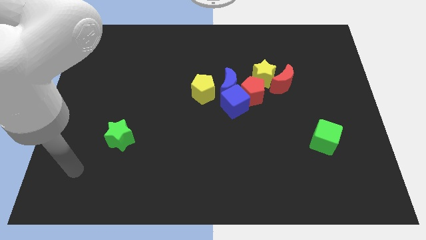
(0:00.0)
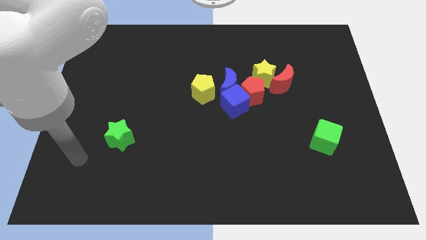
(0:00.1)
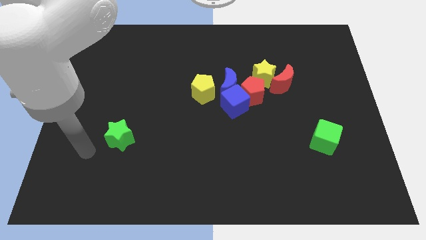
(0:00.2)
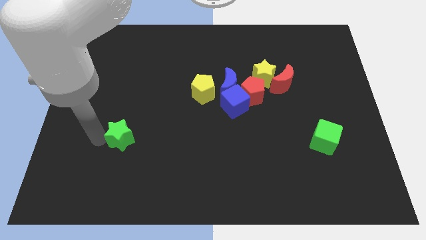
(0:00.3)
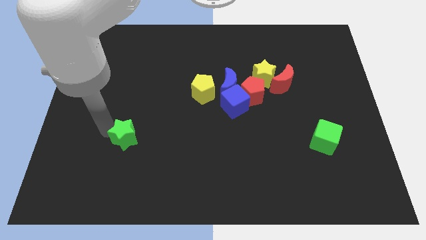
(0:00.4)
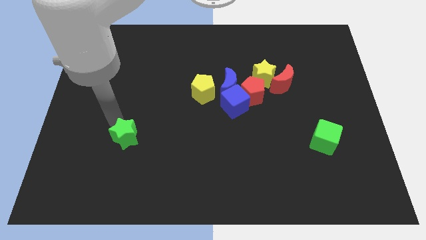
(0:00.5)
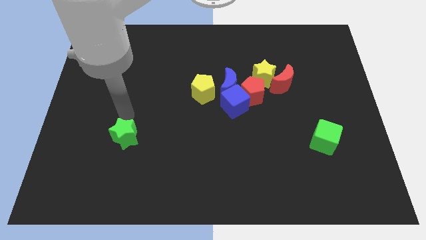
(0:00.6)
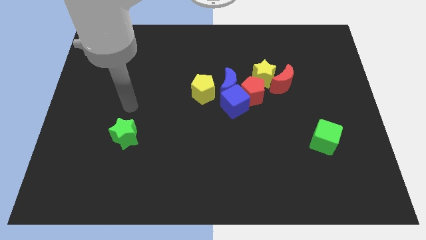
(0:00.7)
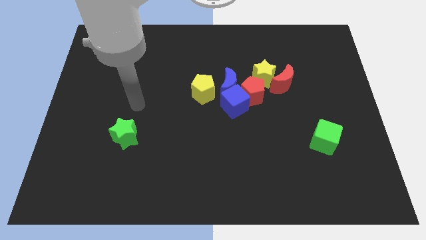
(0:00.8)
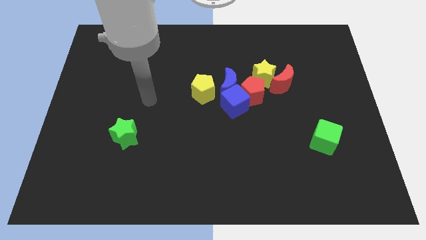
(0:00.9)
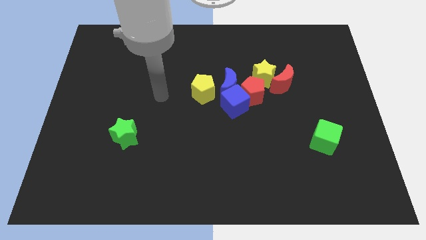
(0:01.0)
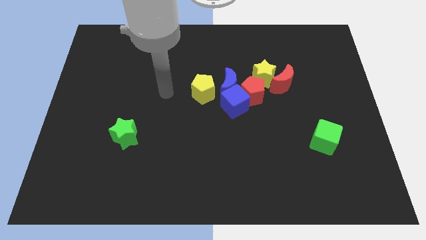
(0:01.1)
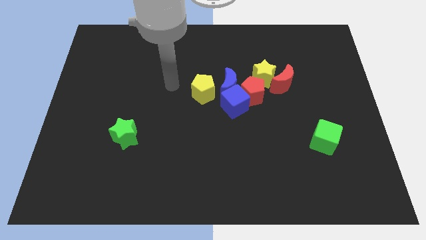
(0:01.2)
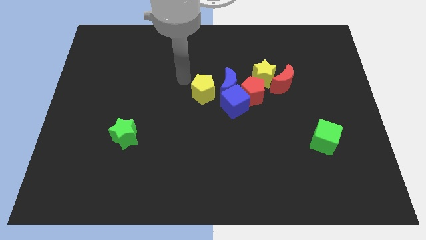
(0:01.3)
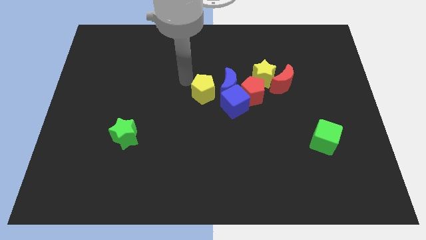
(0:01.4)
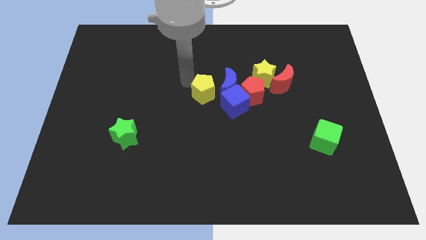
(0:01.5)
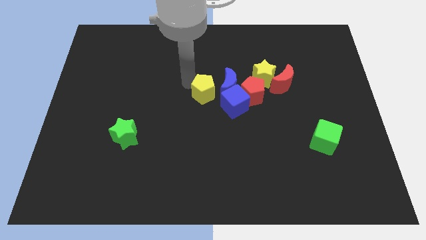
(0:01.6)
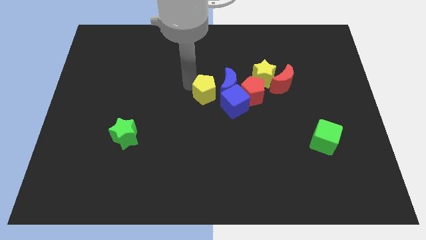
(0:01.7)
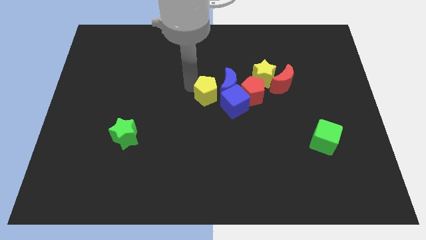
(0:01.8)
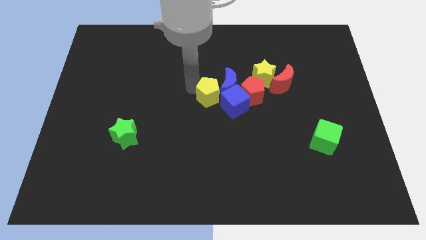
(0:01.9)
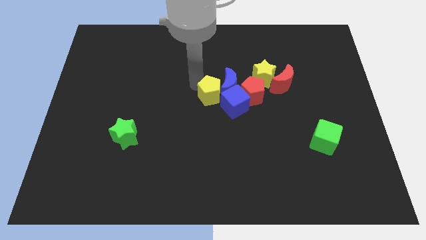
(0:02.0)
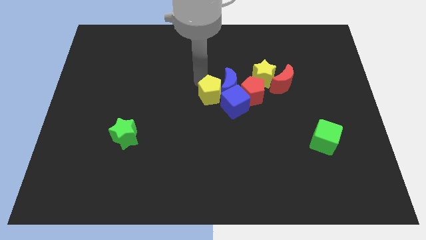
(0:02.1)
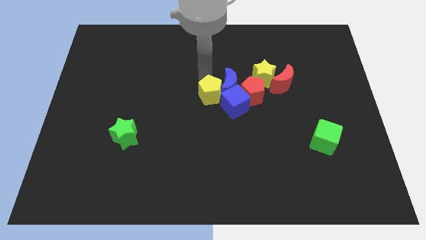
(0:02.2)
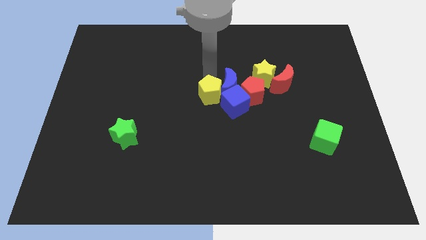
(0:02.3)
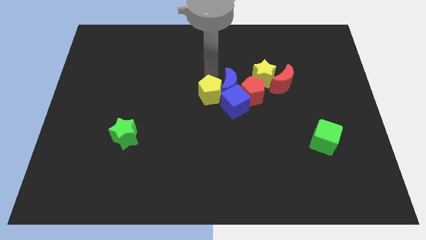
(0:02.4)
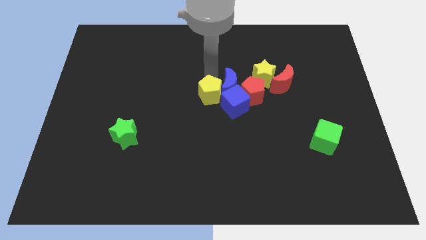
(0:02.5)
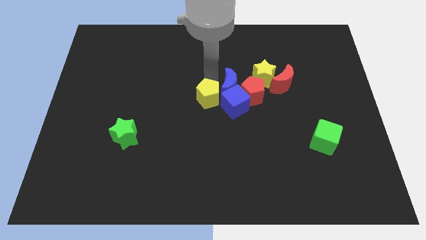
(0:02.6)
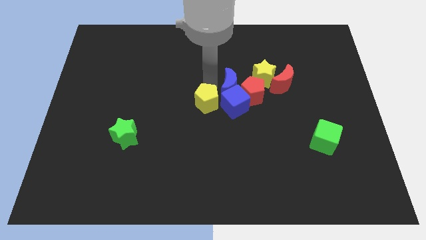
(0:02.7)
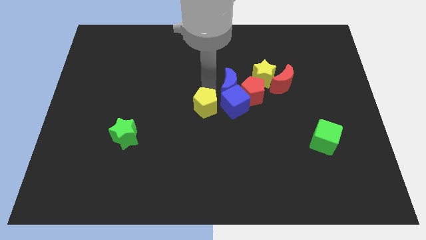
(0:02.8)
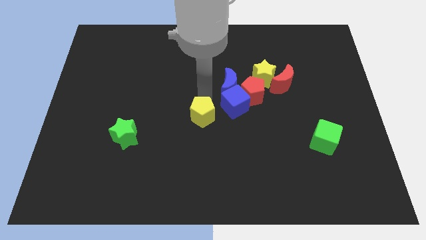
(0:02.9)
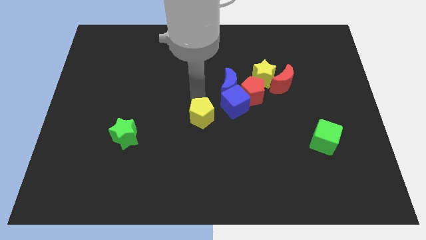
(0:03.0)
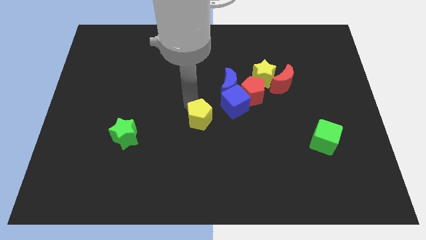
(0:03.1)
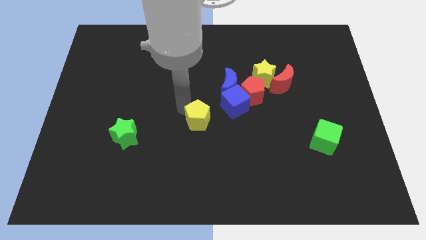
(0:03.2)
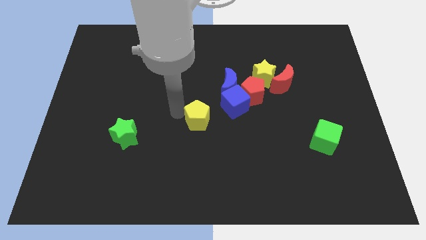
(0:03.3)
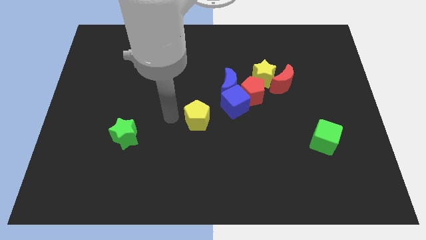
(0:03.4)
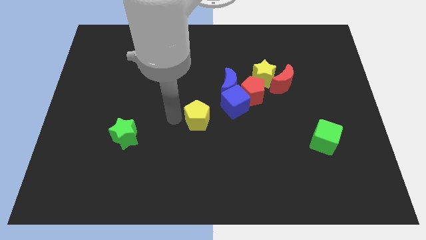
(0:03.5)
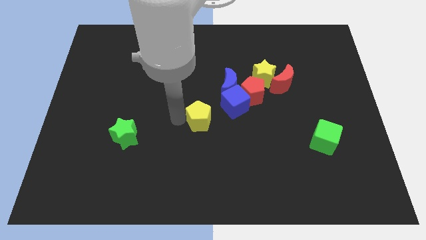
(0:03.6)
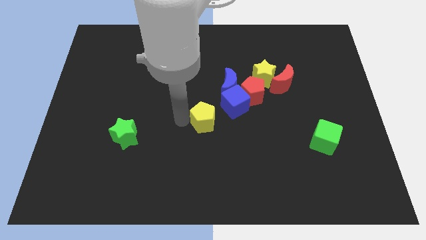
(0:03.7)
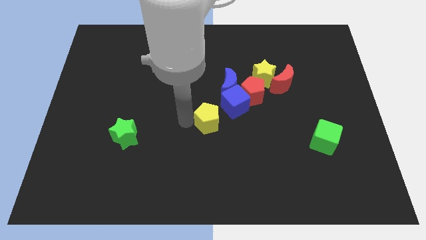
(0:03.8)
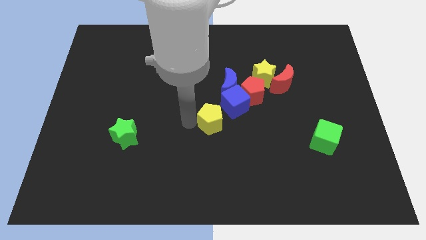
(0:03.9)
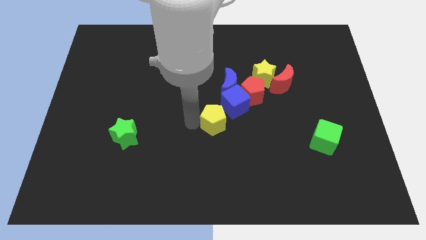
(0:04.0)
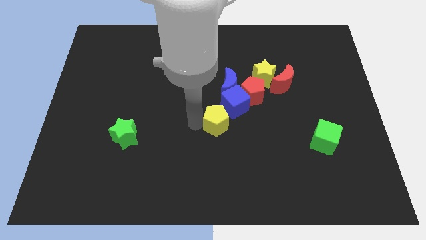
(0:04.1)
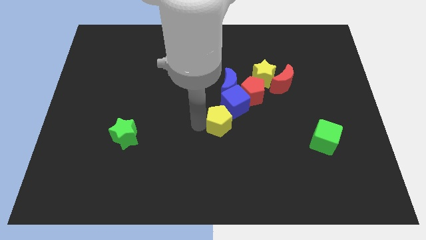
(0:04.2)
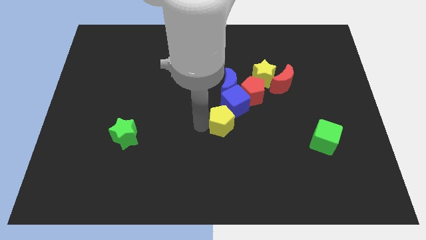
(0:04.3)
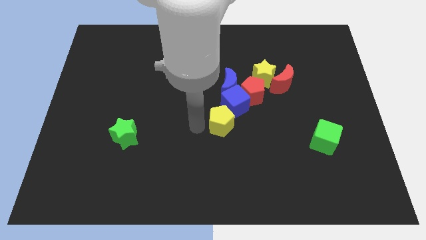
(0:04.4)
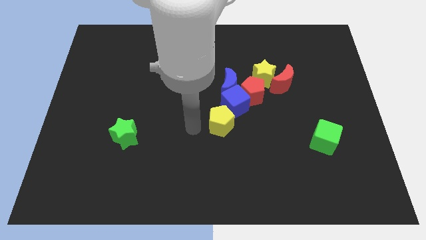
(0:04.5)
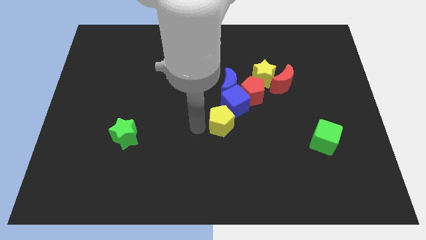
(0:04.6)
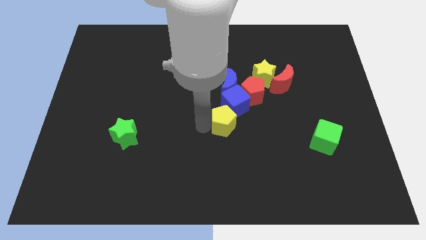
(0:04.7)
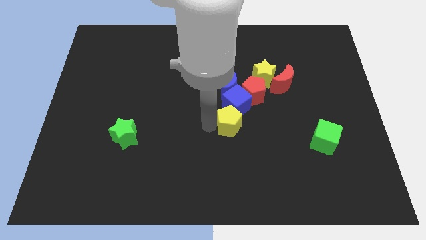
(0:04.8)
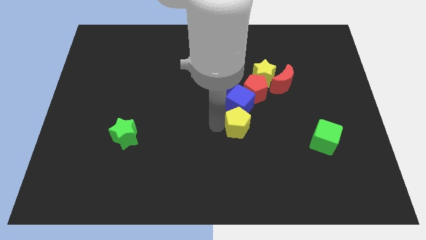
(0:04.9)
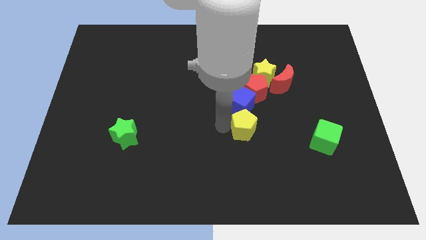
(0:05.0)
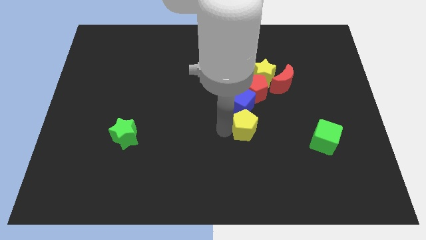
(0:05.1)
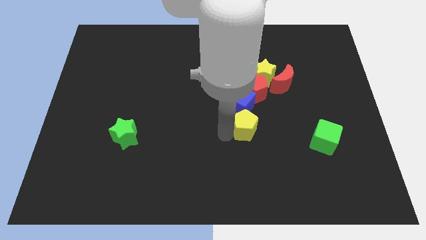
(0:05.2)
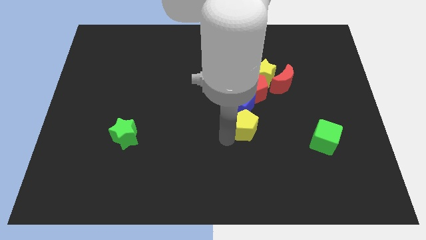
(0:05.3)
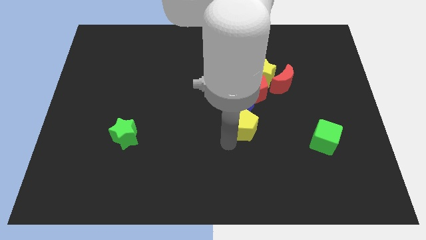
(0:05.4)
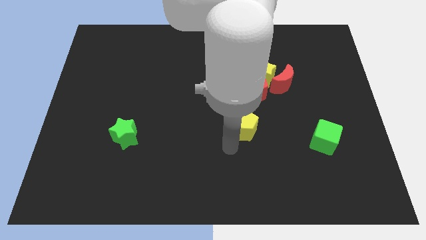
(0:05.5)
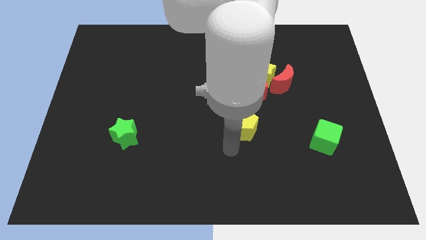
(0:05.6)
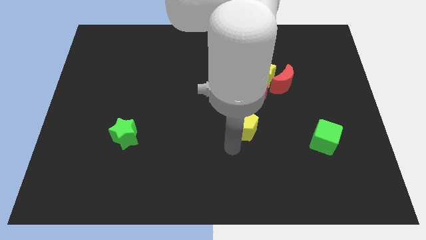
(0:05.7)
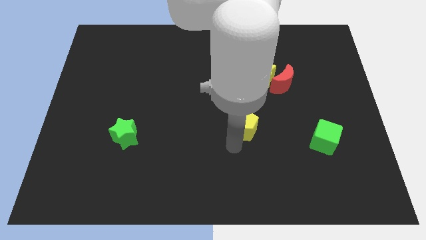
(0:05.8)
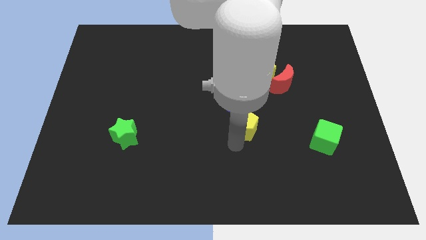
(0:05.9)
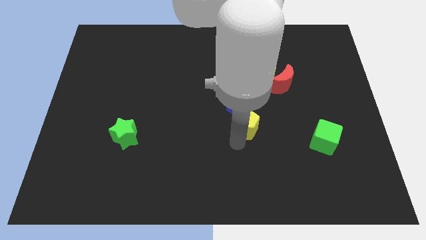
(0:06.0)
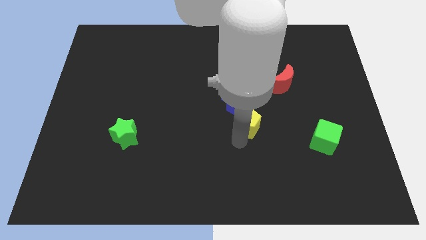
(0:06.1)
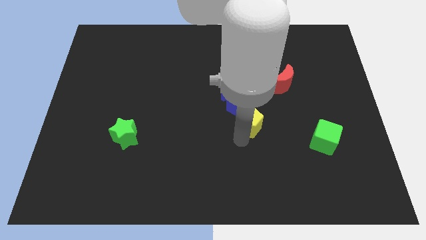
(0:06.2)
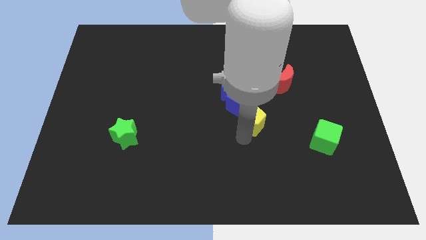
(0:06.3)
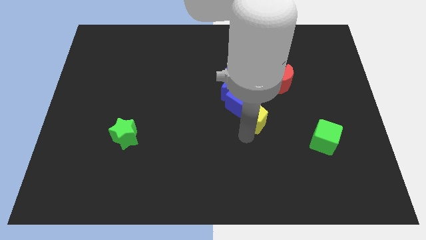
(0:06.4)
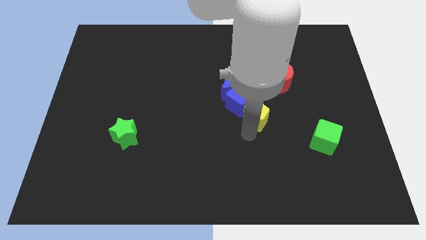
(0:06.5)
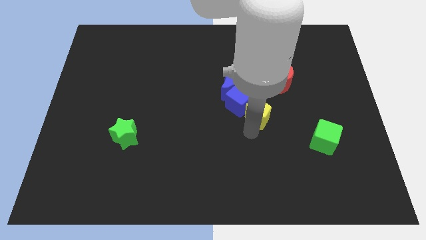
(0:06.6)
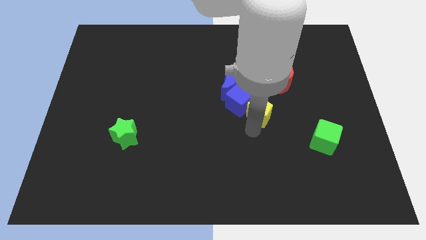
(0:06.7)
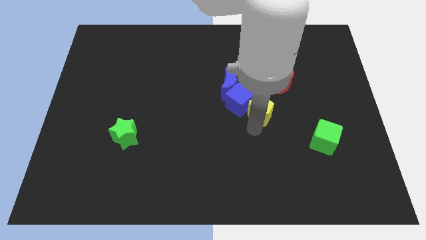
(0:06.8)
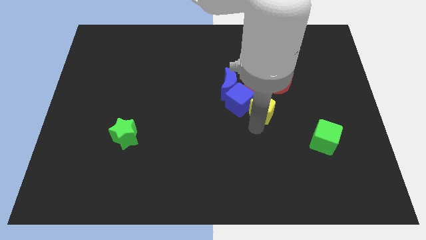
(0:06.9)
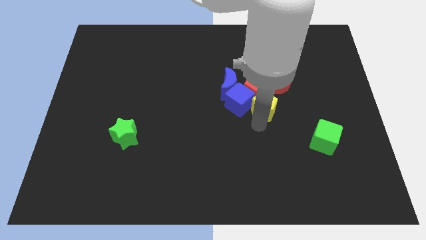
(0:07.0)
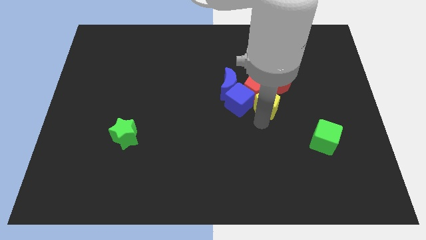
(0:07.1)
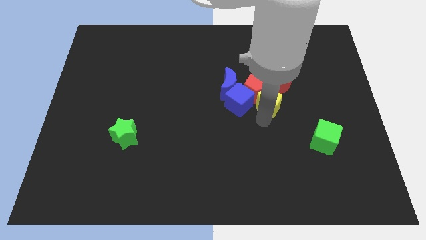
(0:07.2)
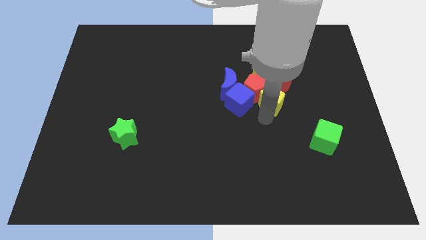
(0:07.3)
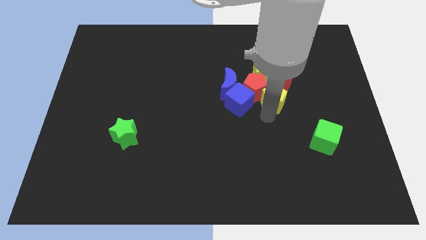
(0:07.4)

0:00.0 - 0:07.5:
slide the yellow pentagon to the bottom right of the yellow star
